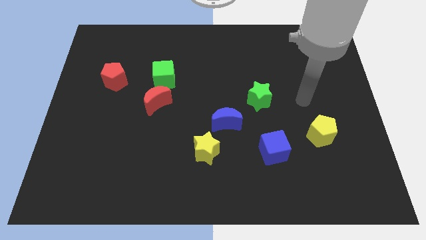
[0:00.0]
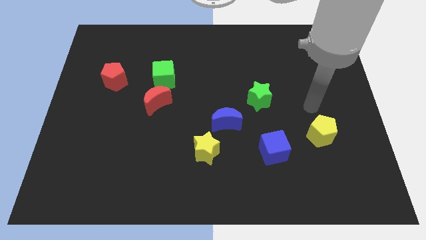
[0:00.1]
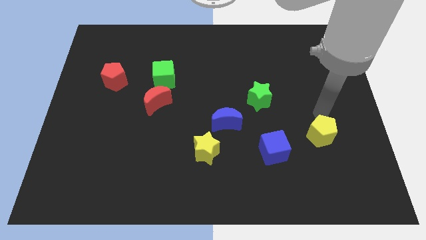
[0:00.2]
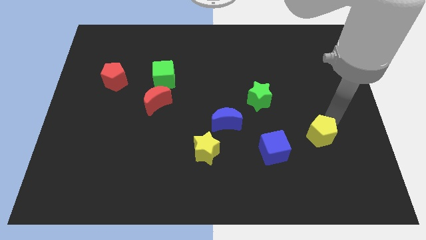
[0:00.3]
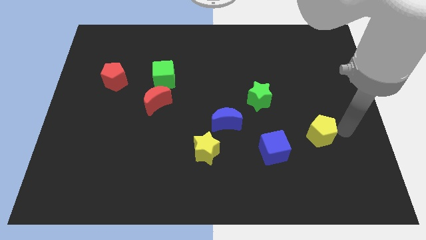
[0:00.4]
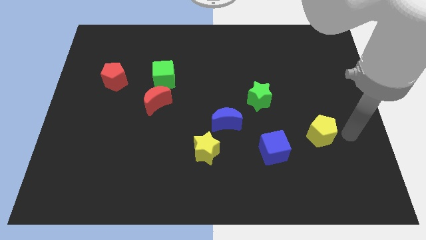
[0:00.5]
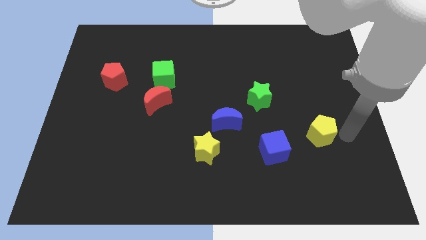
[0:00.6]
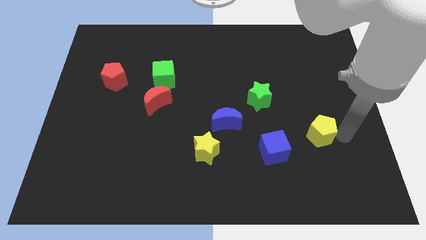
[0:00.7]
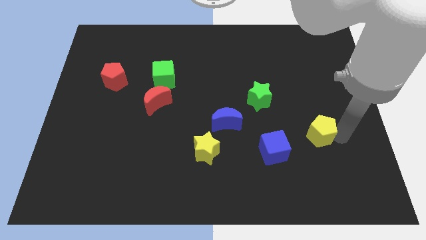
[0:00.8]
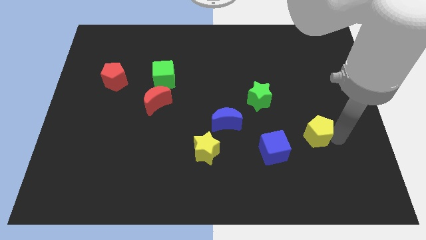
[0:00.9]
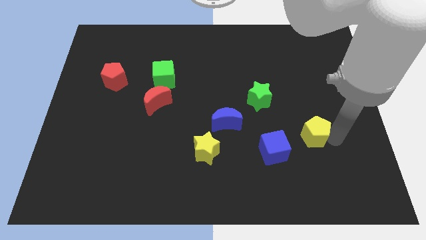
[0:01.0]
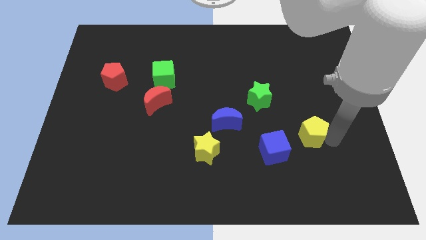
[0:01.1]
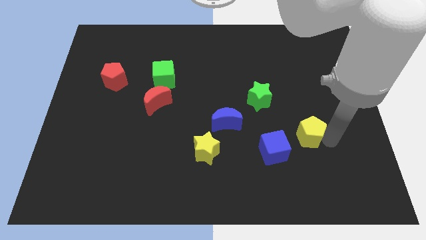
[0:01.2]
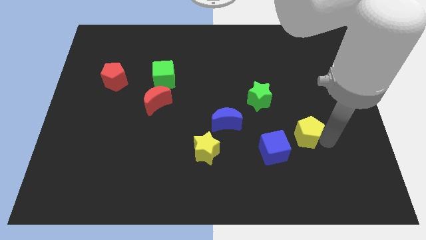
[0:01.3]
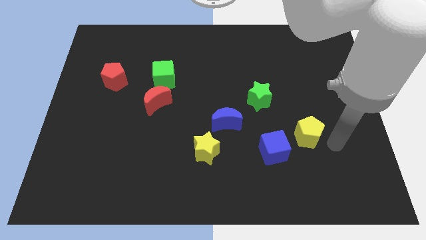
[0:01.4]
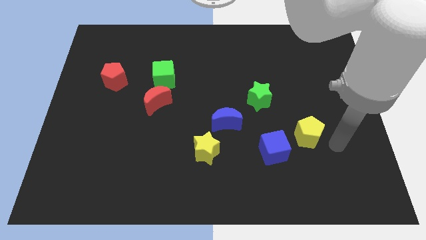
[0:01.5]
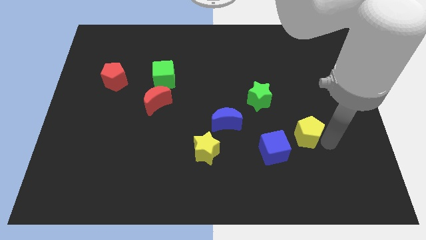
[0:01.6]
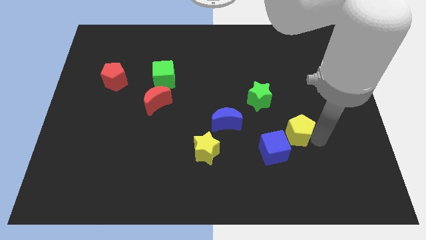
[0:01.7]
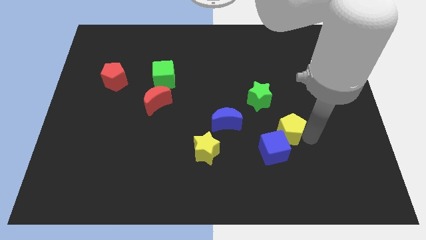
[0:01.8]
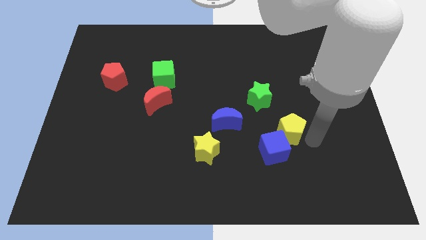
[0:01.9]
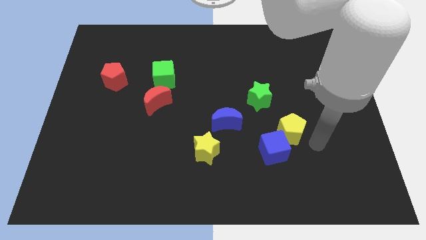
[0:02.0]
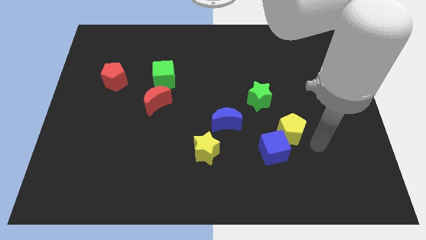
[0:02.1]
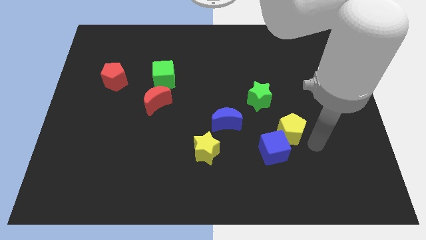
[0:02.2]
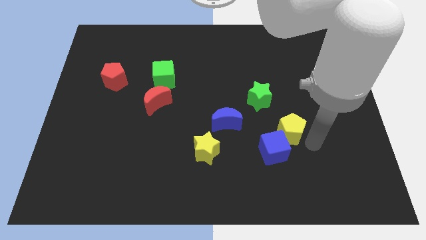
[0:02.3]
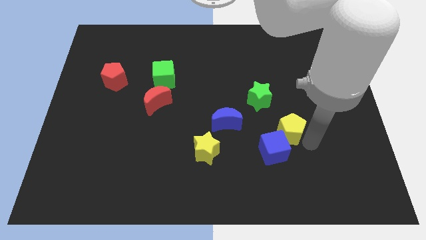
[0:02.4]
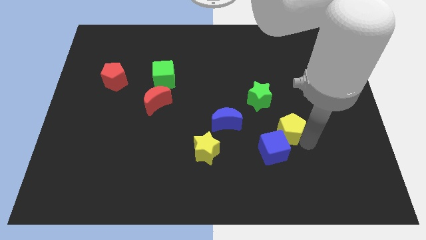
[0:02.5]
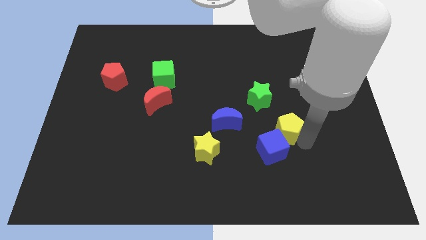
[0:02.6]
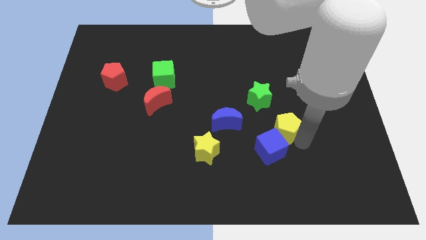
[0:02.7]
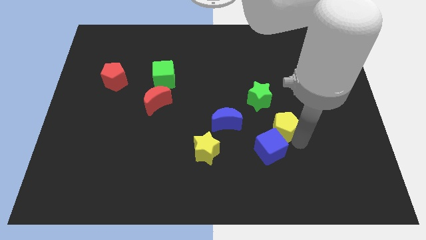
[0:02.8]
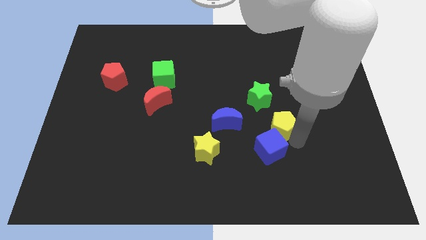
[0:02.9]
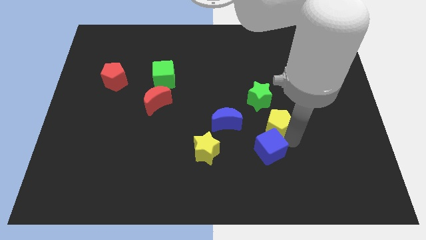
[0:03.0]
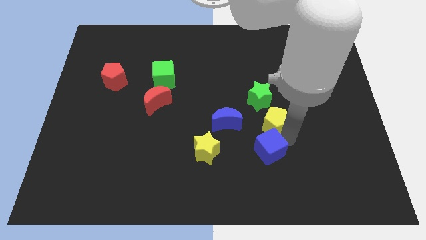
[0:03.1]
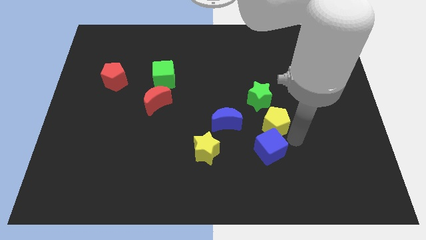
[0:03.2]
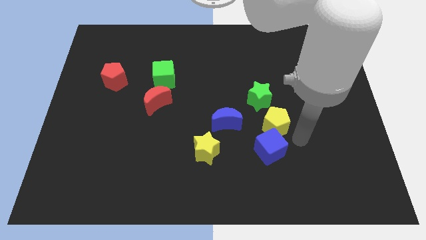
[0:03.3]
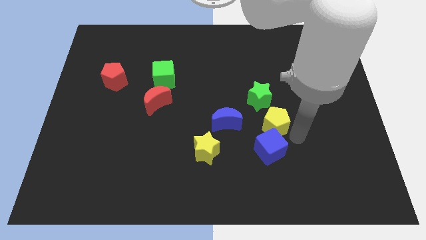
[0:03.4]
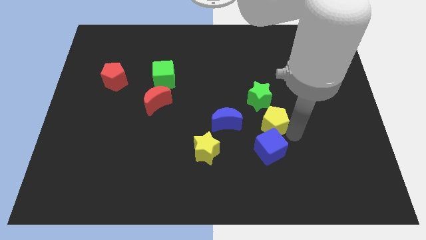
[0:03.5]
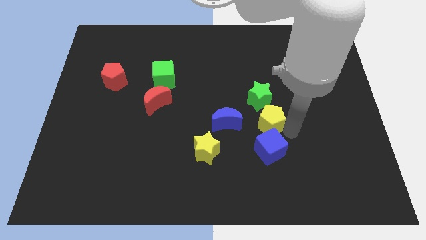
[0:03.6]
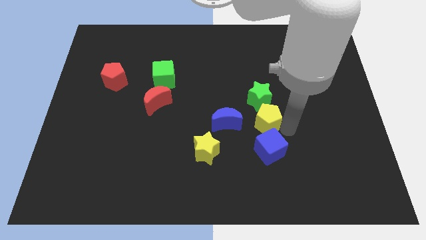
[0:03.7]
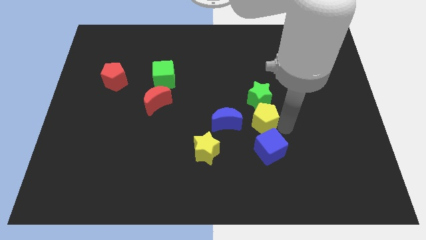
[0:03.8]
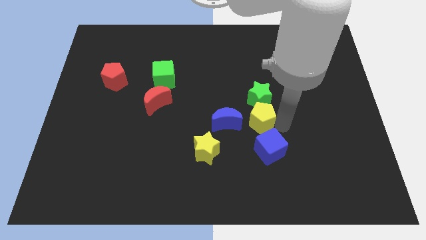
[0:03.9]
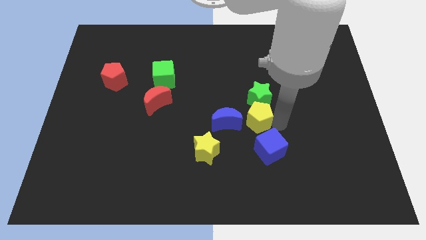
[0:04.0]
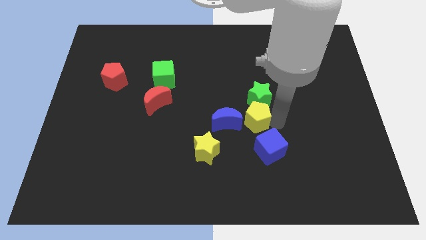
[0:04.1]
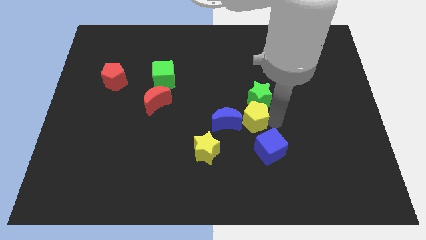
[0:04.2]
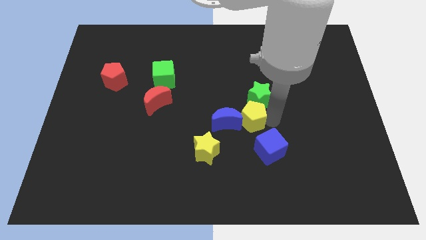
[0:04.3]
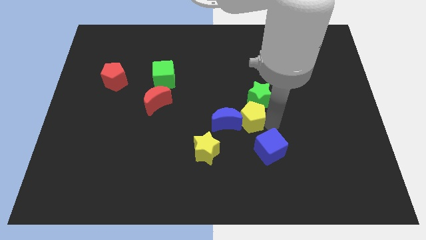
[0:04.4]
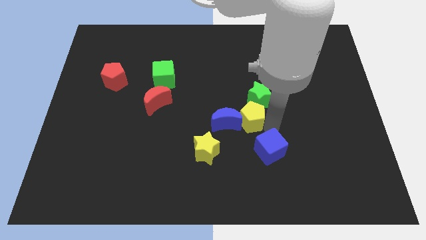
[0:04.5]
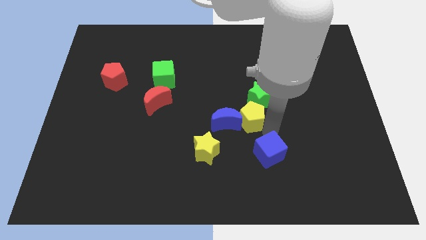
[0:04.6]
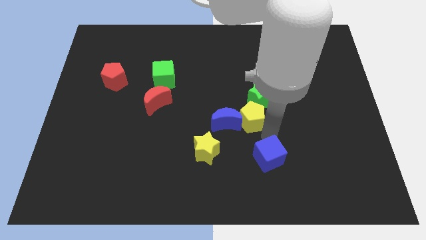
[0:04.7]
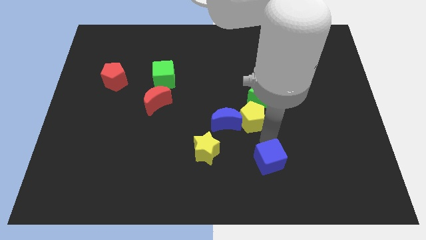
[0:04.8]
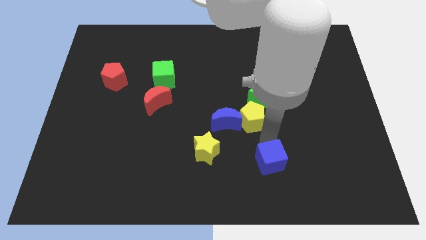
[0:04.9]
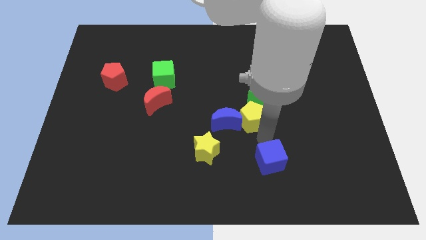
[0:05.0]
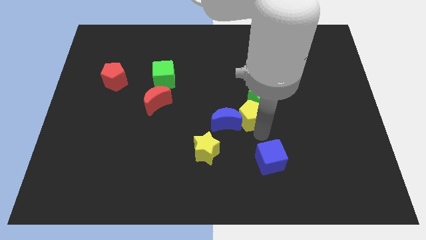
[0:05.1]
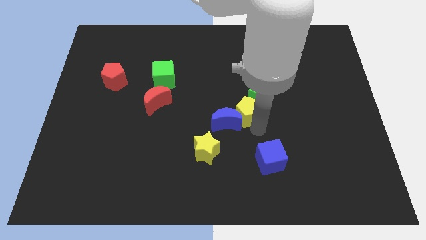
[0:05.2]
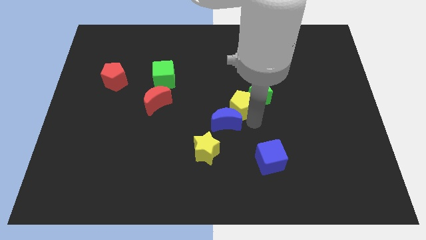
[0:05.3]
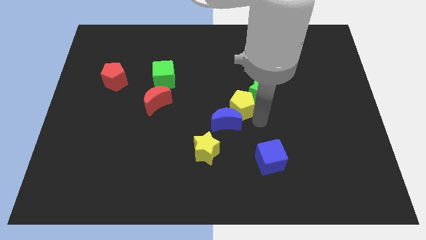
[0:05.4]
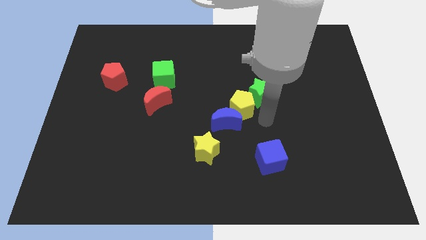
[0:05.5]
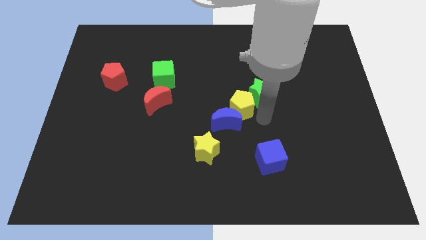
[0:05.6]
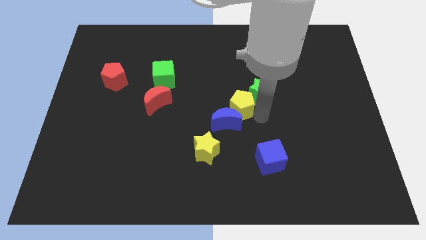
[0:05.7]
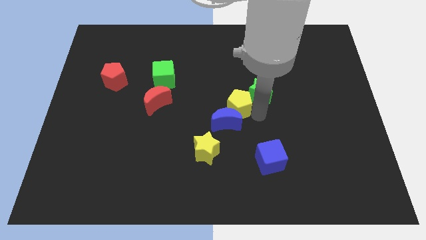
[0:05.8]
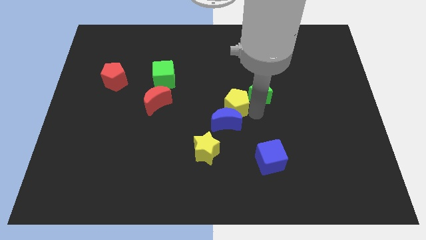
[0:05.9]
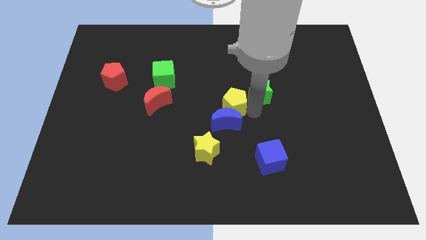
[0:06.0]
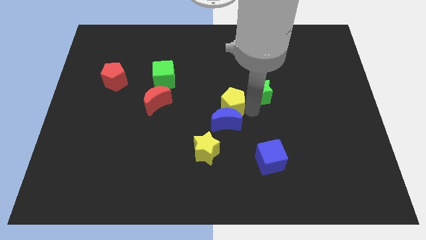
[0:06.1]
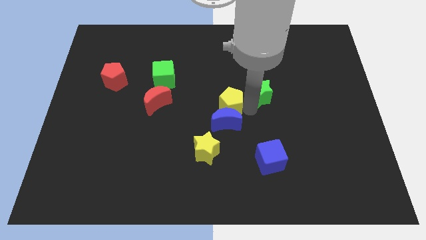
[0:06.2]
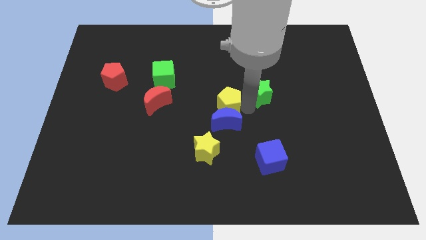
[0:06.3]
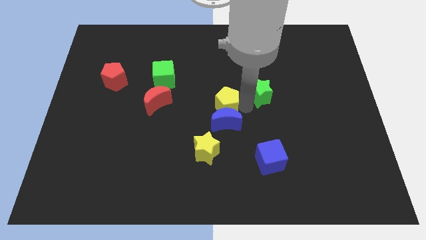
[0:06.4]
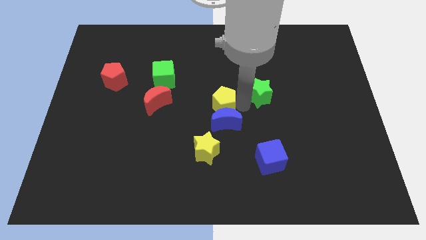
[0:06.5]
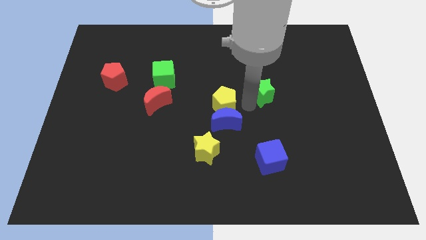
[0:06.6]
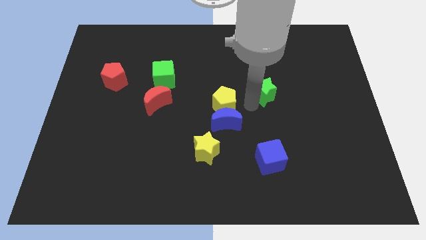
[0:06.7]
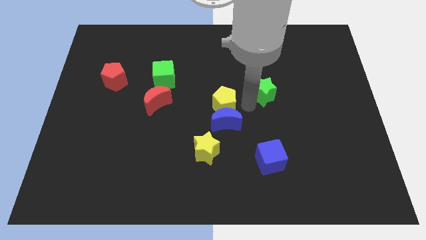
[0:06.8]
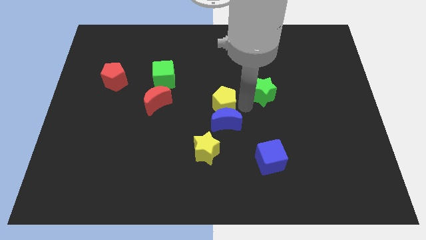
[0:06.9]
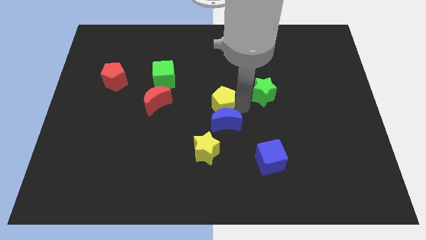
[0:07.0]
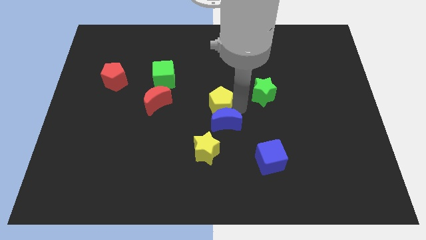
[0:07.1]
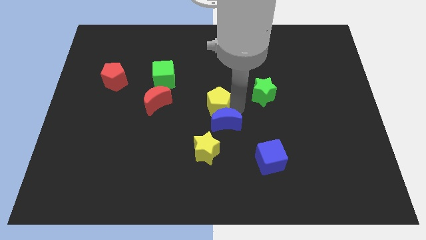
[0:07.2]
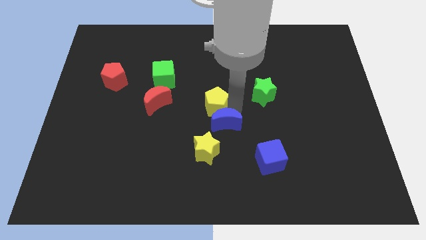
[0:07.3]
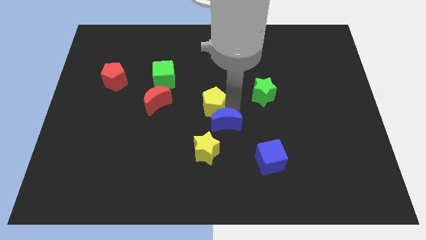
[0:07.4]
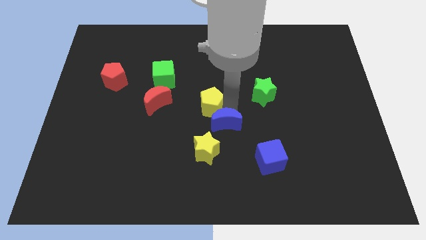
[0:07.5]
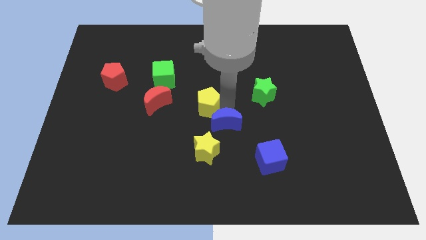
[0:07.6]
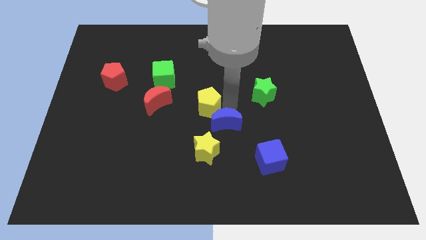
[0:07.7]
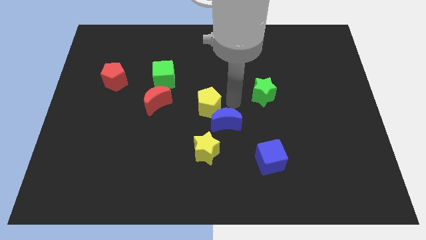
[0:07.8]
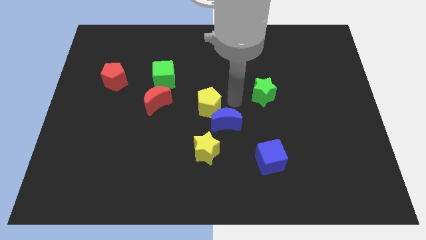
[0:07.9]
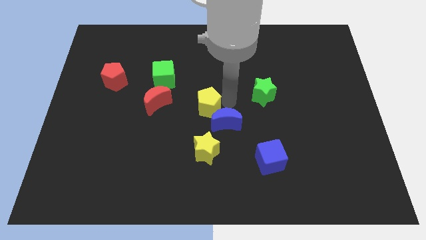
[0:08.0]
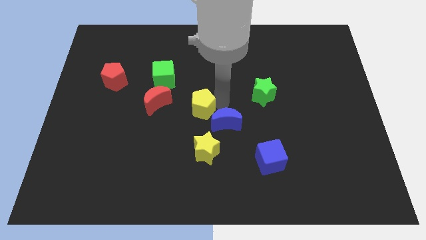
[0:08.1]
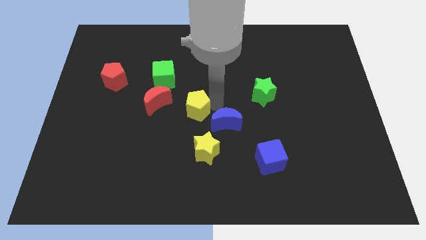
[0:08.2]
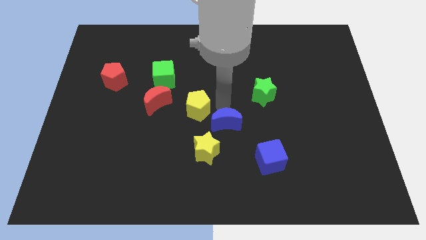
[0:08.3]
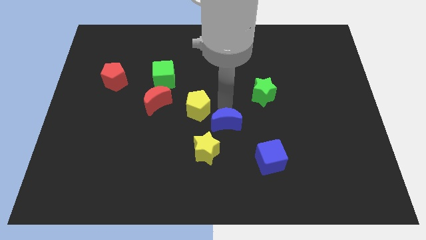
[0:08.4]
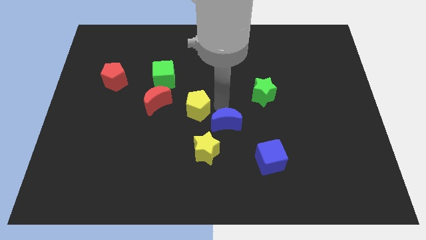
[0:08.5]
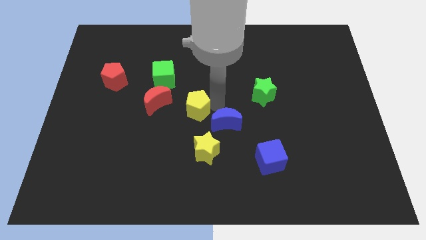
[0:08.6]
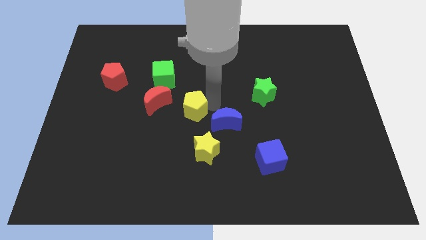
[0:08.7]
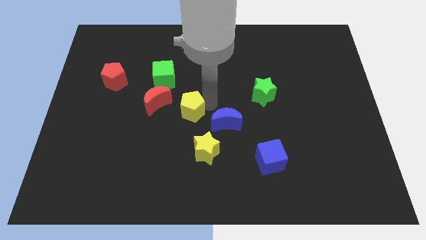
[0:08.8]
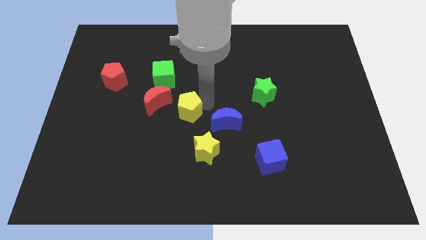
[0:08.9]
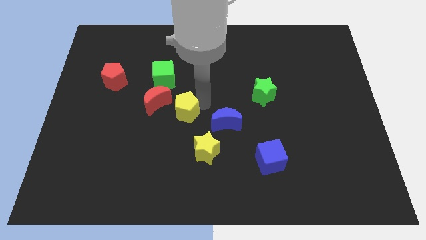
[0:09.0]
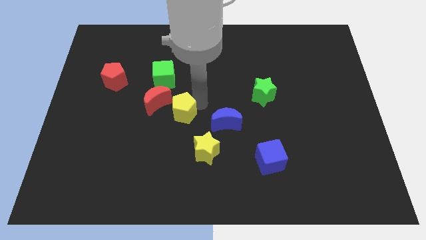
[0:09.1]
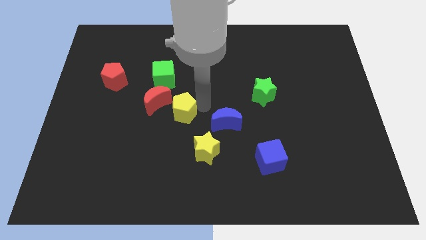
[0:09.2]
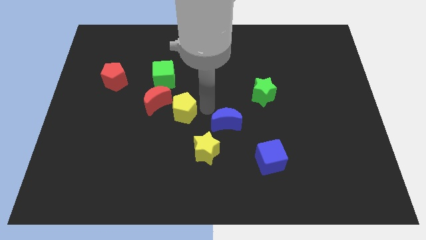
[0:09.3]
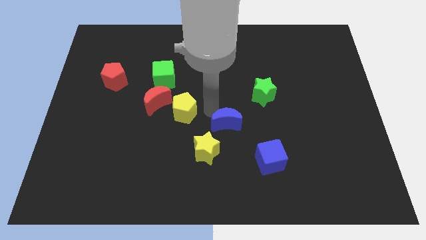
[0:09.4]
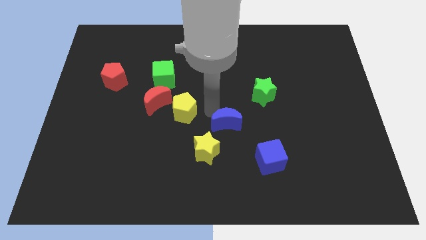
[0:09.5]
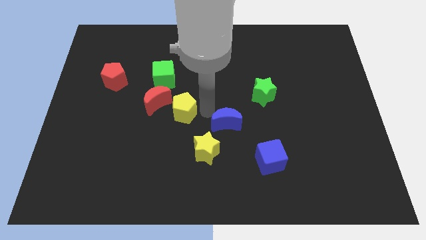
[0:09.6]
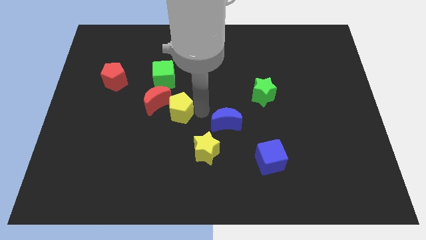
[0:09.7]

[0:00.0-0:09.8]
put the yellow pentagon close to the red moon
